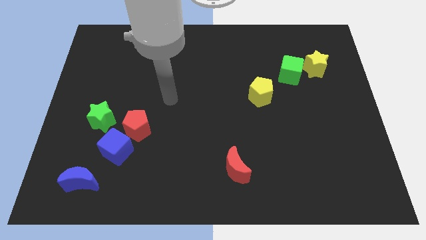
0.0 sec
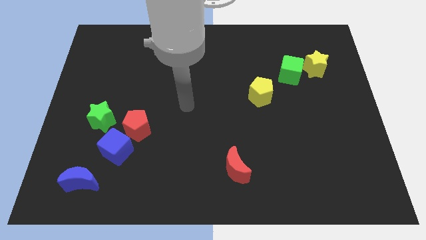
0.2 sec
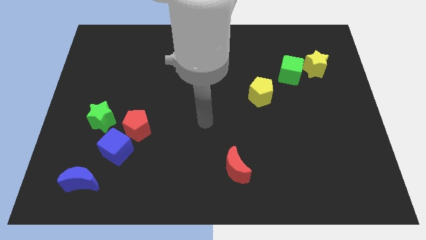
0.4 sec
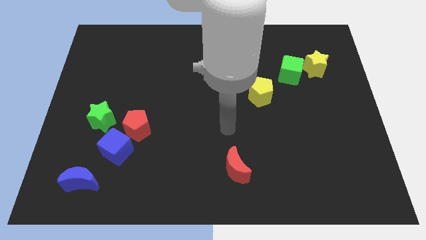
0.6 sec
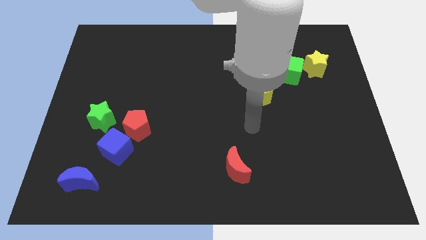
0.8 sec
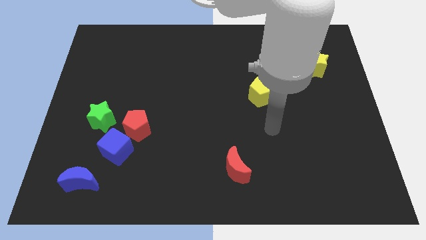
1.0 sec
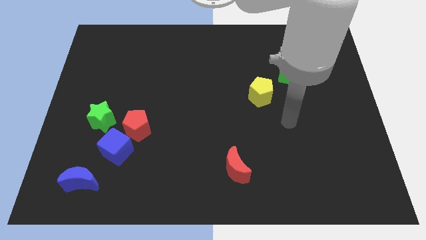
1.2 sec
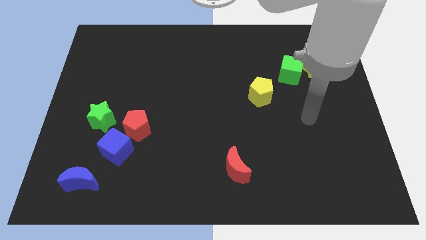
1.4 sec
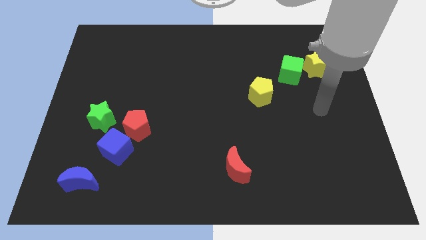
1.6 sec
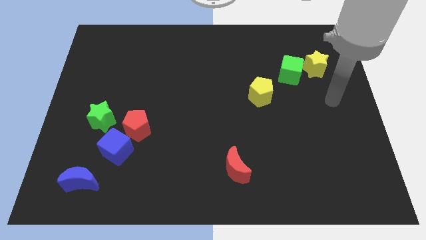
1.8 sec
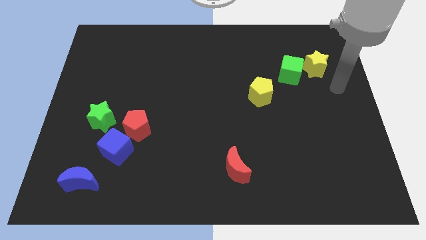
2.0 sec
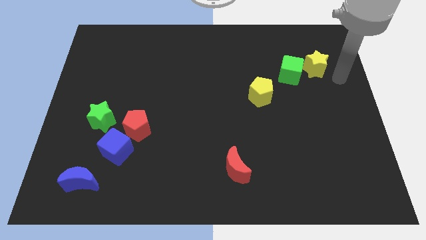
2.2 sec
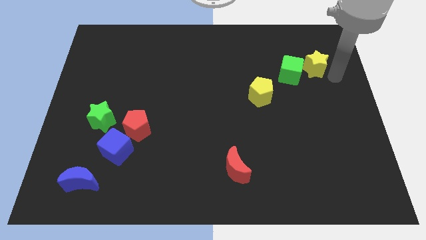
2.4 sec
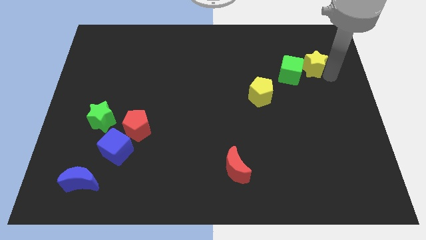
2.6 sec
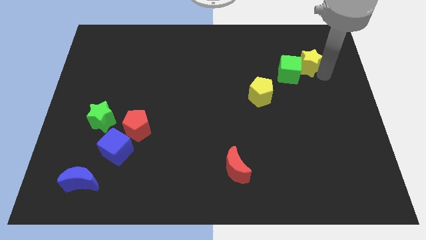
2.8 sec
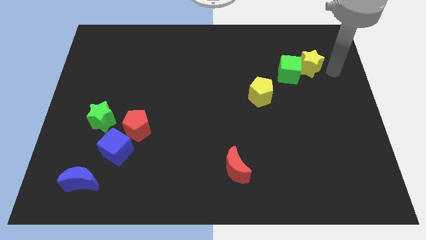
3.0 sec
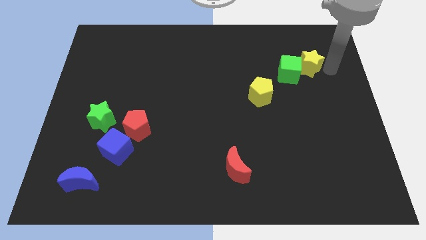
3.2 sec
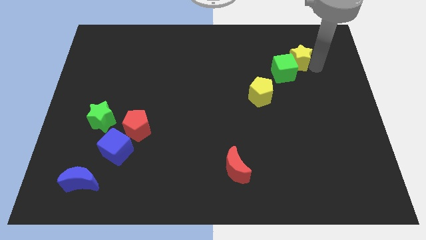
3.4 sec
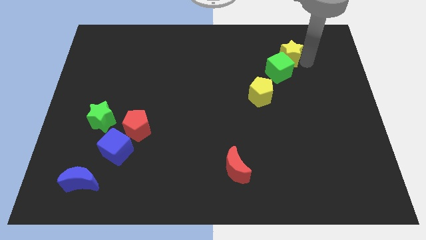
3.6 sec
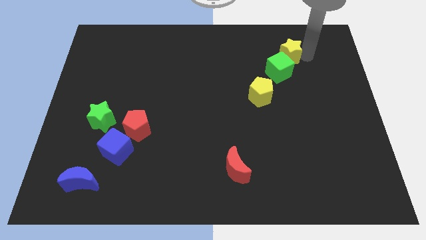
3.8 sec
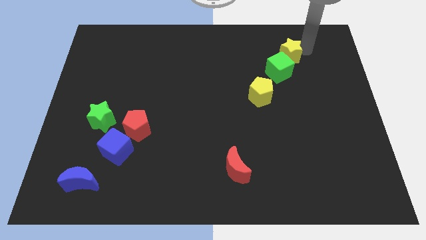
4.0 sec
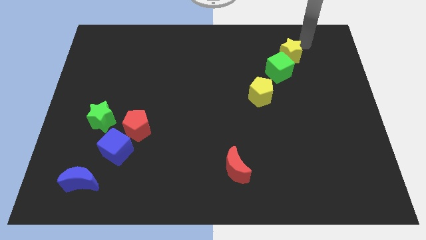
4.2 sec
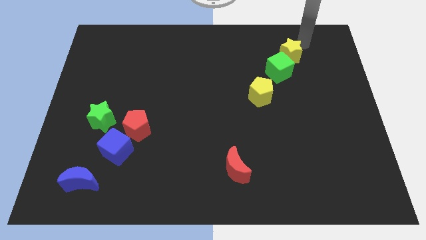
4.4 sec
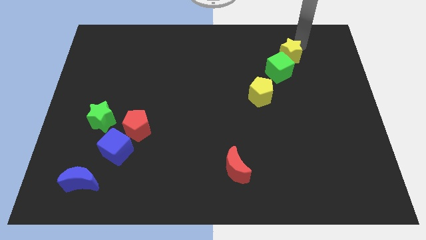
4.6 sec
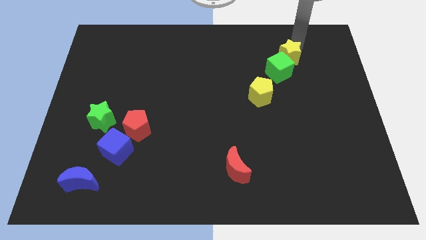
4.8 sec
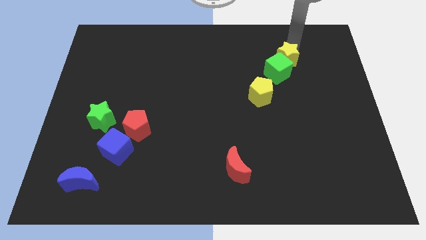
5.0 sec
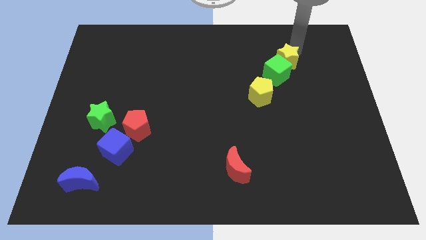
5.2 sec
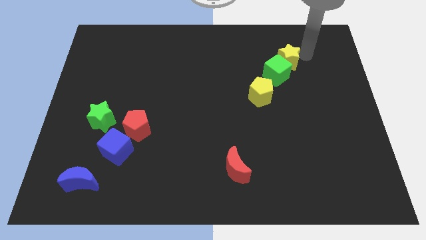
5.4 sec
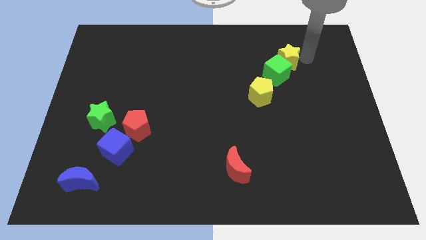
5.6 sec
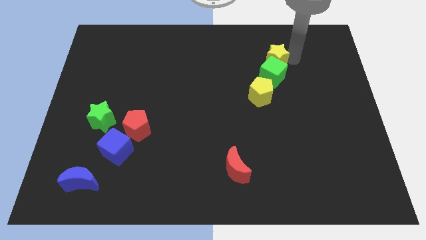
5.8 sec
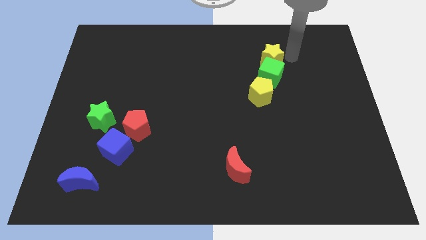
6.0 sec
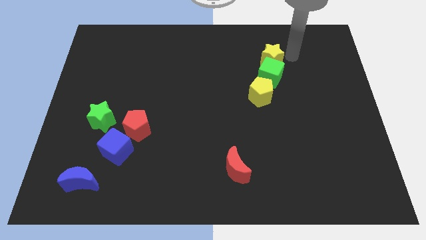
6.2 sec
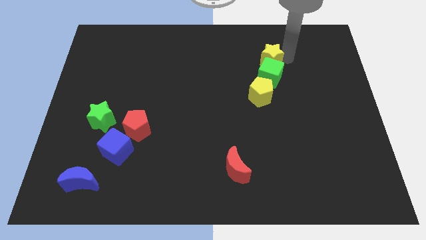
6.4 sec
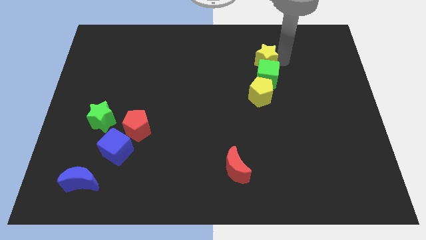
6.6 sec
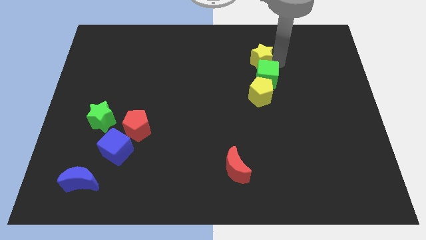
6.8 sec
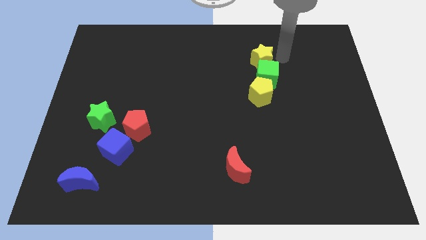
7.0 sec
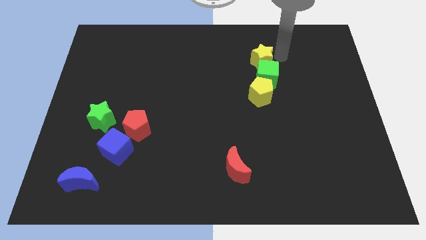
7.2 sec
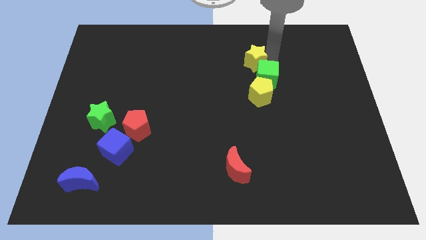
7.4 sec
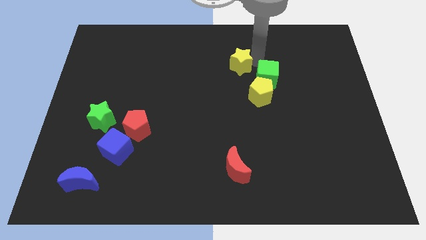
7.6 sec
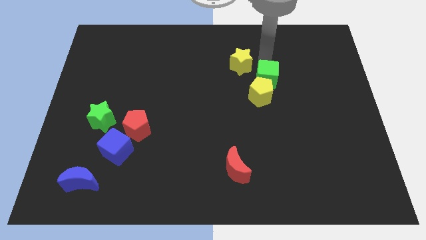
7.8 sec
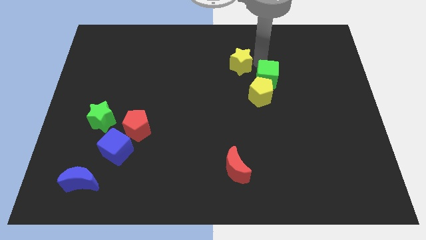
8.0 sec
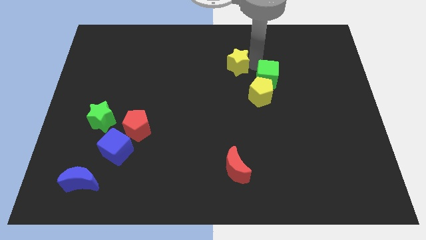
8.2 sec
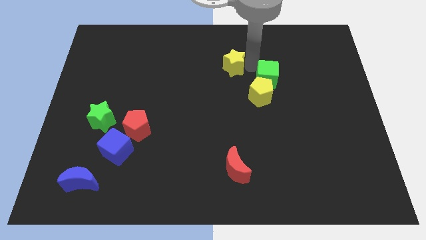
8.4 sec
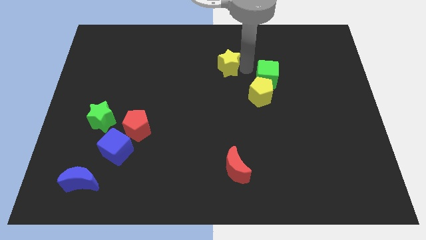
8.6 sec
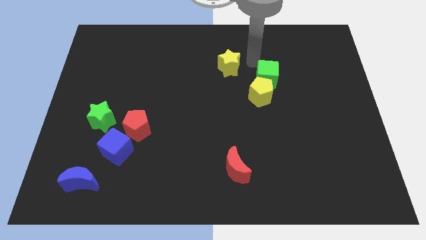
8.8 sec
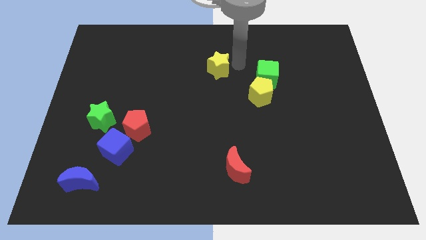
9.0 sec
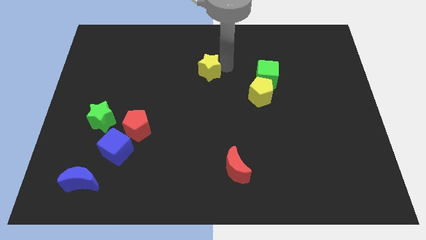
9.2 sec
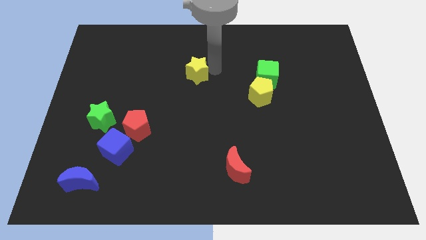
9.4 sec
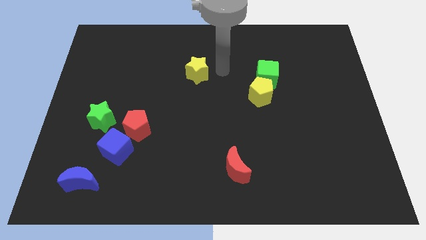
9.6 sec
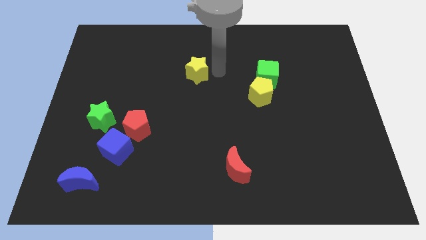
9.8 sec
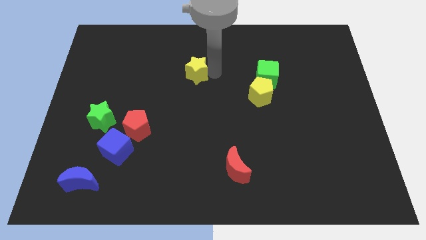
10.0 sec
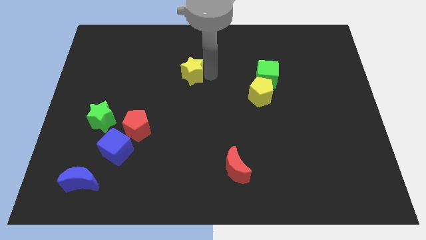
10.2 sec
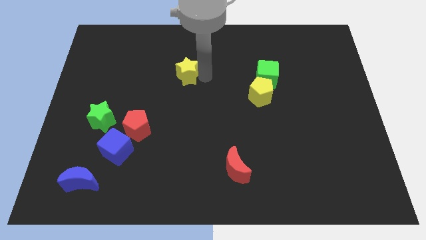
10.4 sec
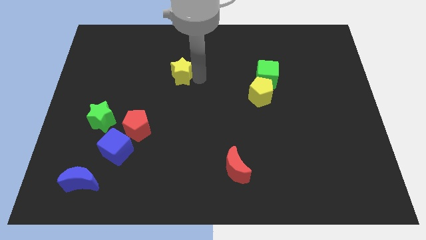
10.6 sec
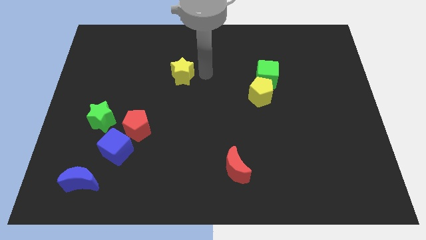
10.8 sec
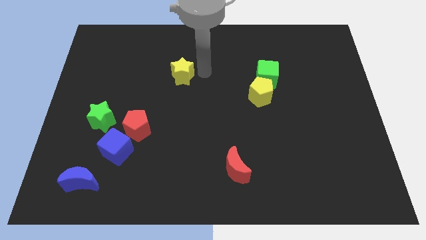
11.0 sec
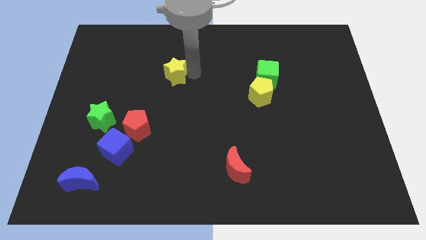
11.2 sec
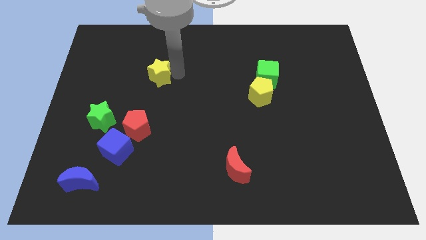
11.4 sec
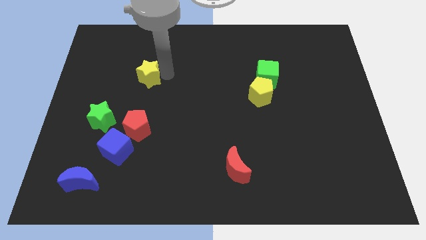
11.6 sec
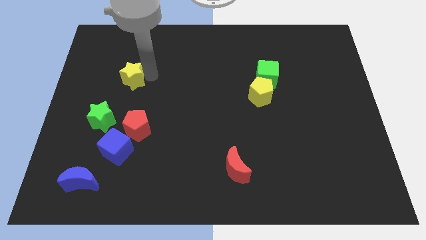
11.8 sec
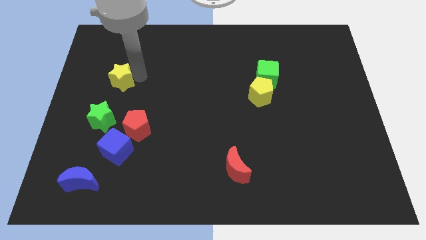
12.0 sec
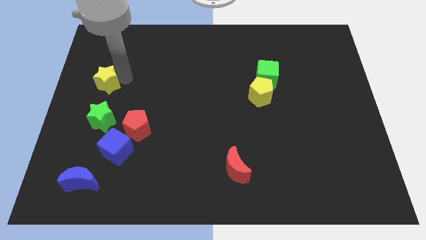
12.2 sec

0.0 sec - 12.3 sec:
move the yellow star to the left side of the board

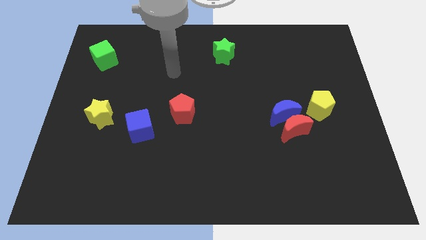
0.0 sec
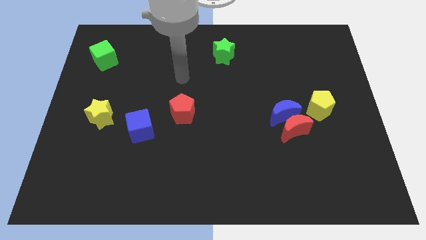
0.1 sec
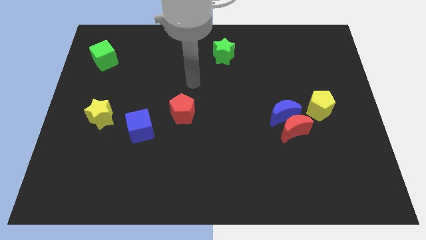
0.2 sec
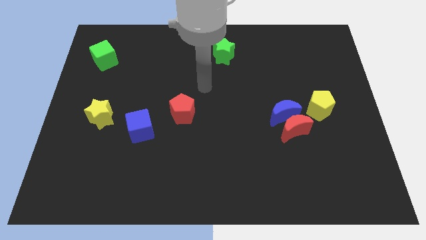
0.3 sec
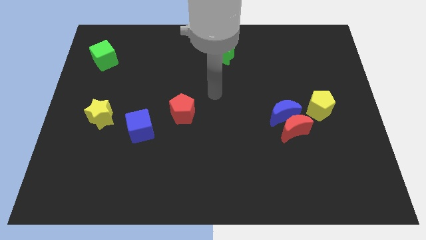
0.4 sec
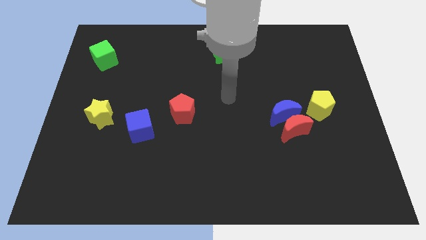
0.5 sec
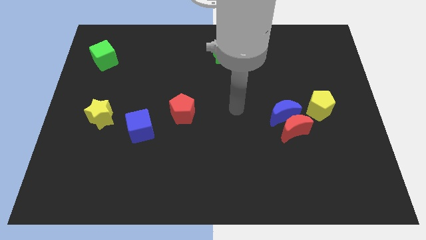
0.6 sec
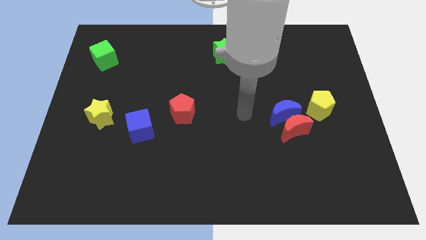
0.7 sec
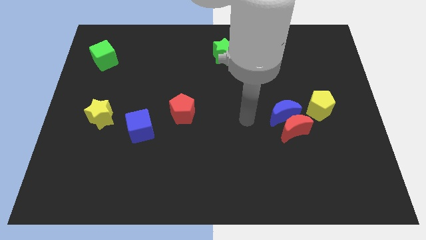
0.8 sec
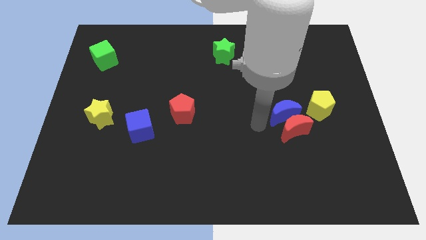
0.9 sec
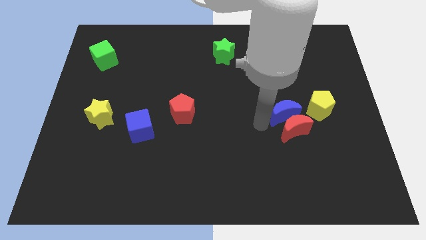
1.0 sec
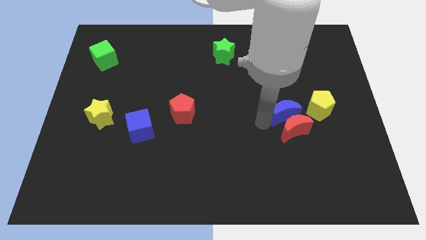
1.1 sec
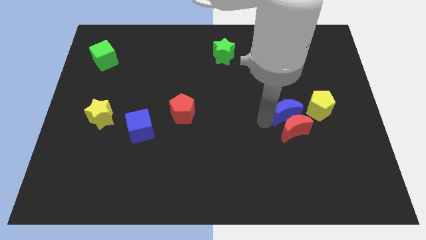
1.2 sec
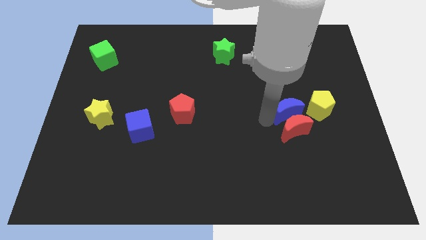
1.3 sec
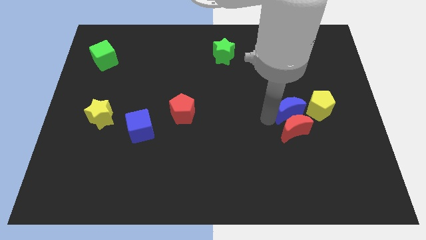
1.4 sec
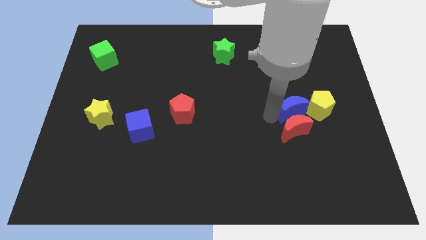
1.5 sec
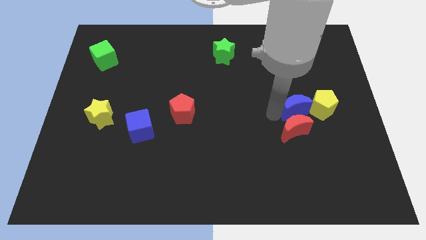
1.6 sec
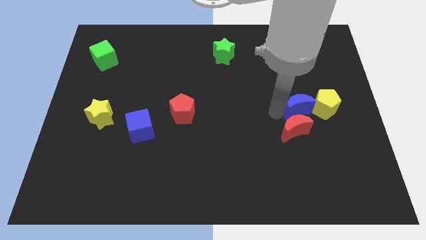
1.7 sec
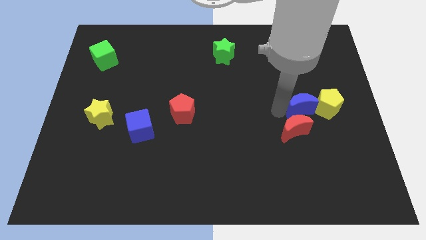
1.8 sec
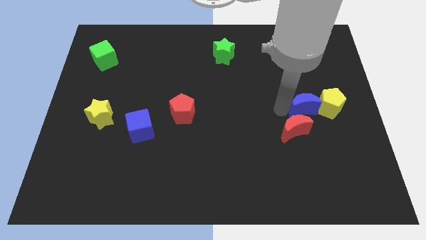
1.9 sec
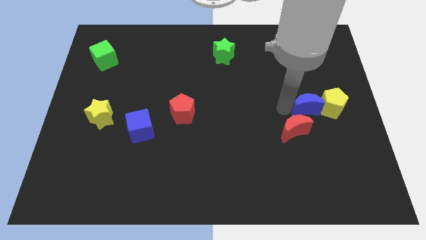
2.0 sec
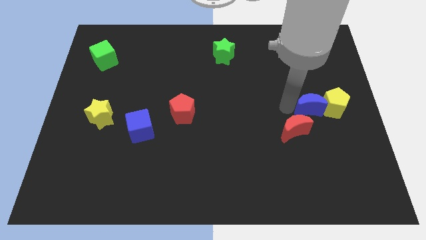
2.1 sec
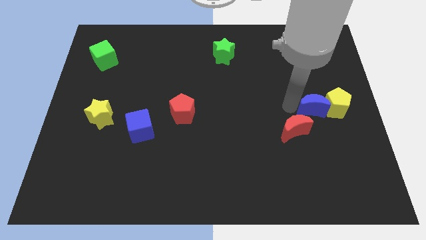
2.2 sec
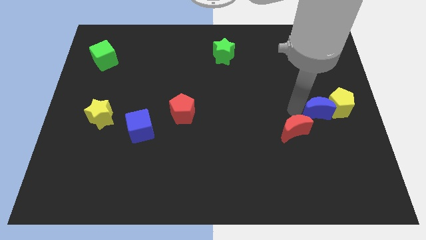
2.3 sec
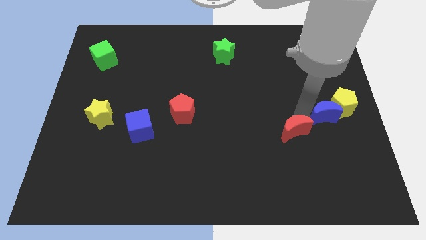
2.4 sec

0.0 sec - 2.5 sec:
move the blue moon to the right side of the board
